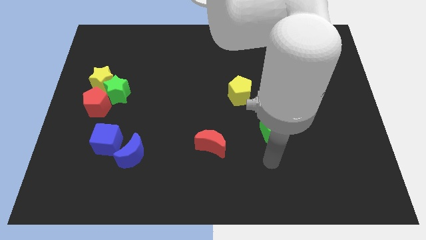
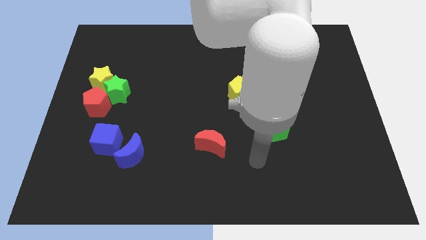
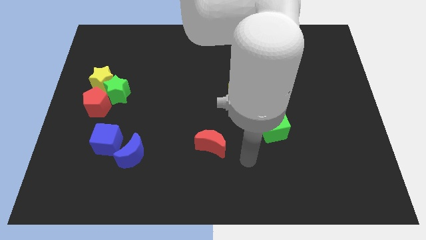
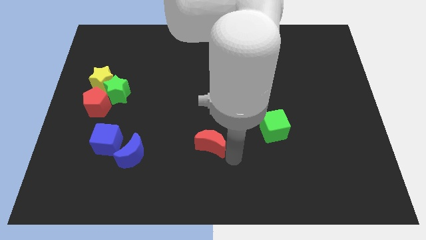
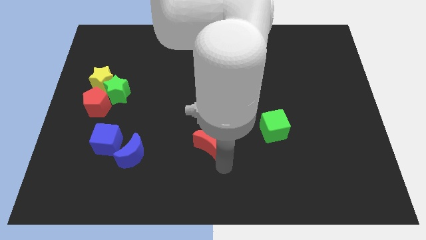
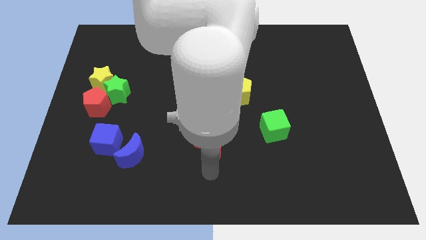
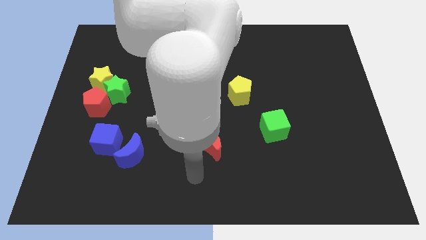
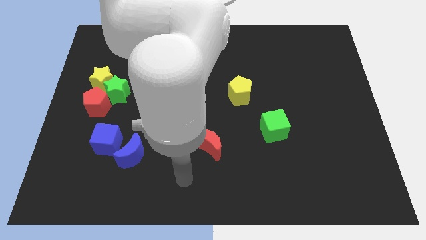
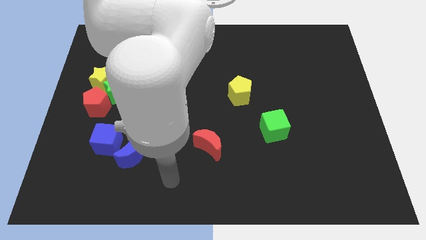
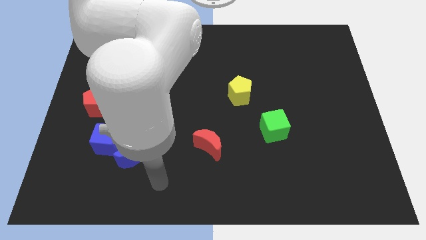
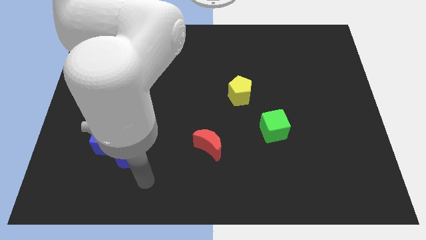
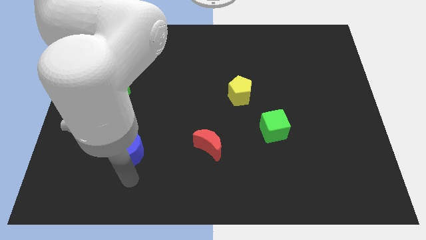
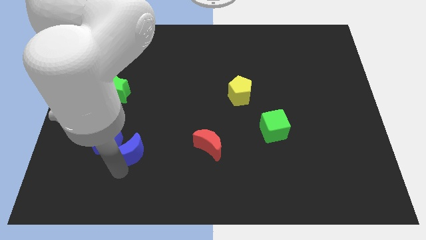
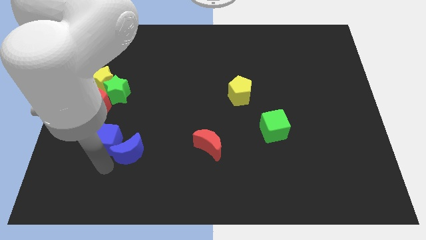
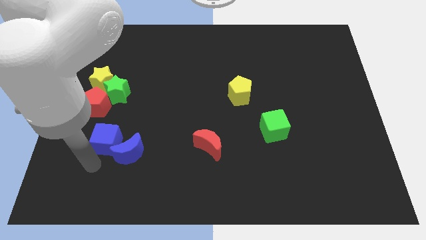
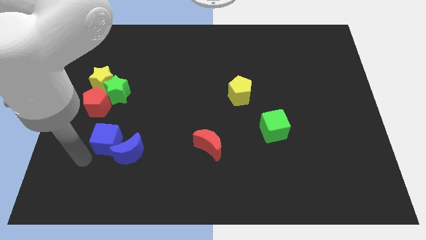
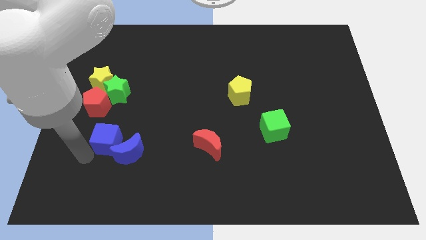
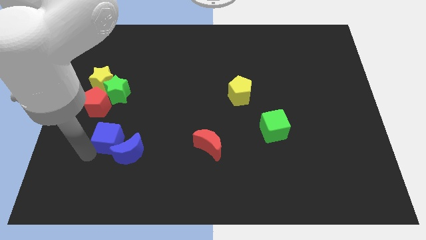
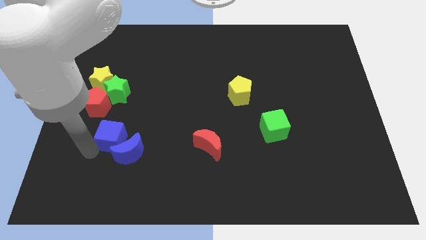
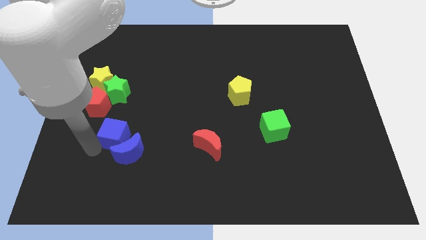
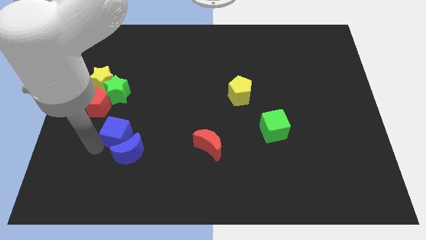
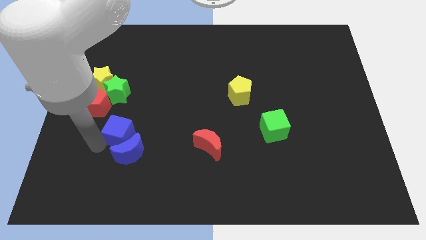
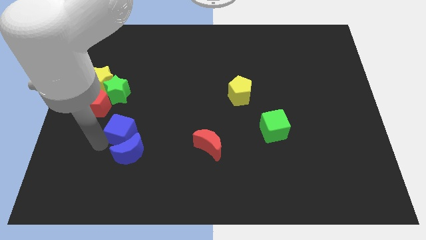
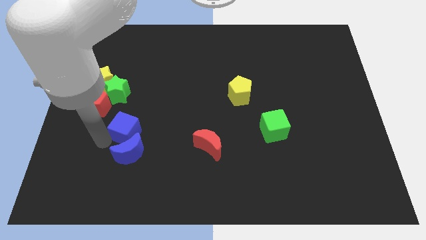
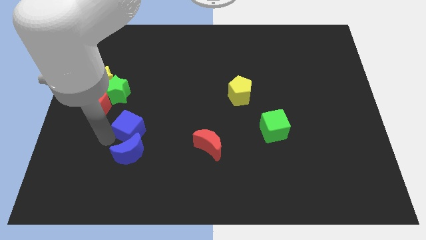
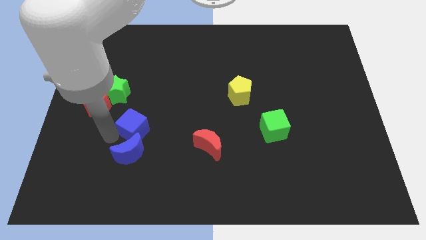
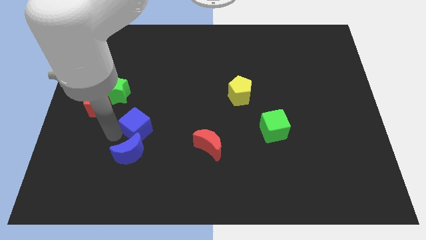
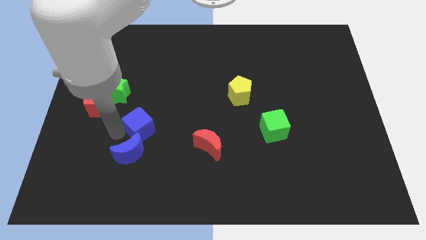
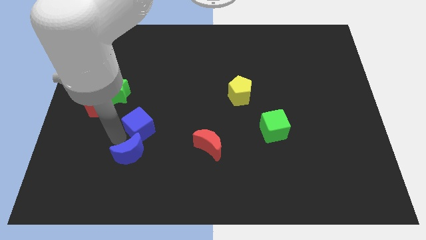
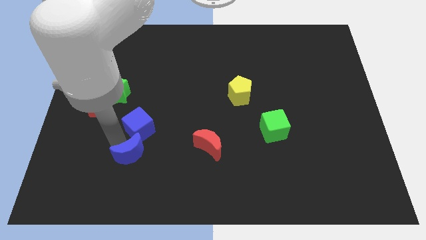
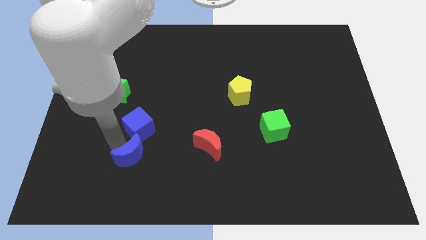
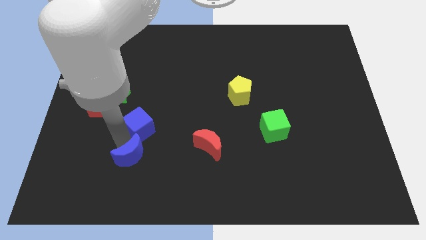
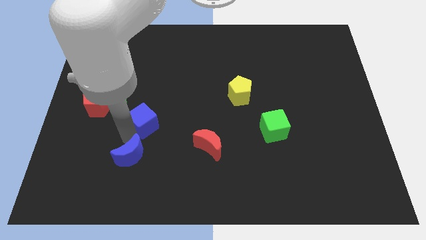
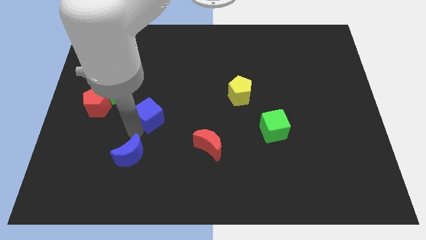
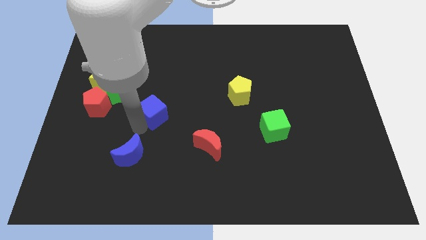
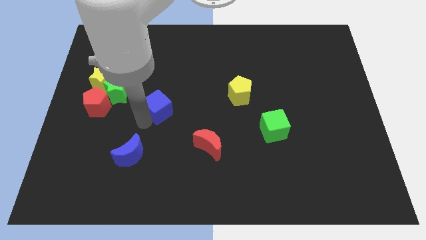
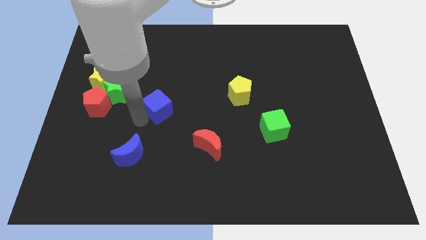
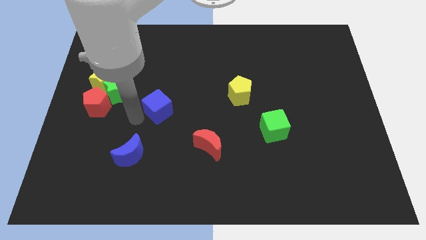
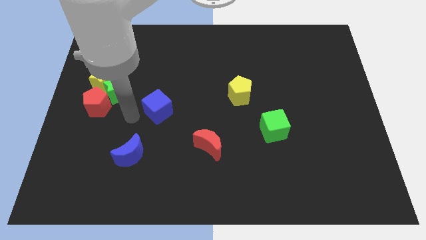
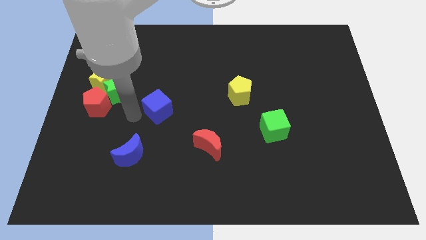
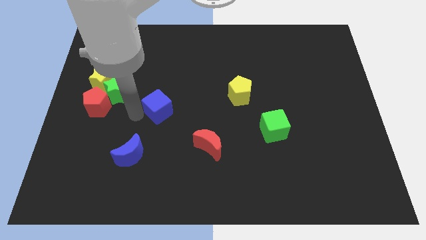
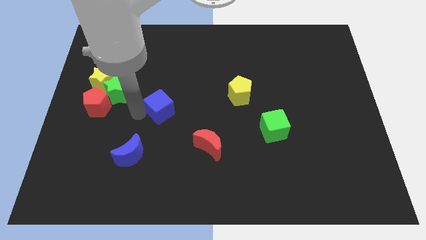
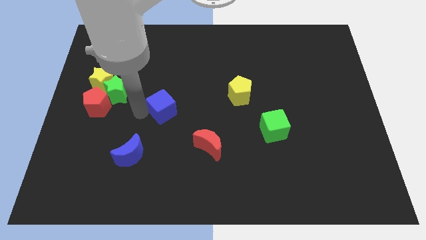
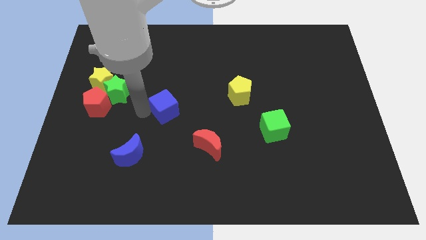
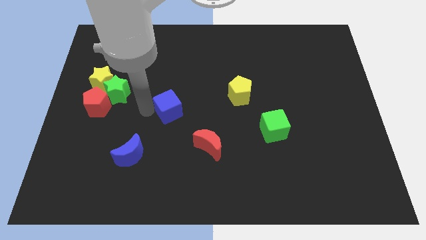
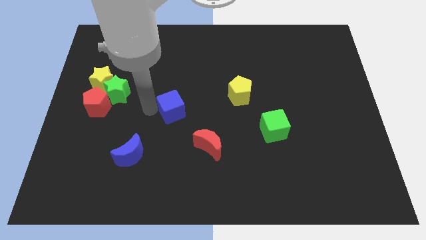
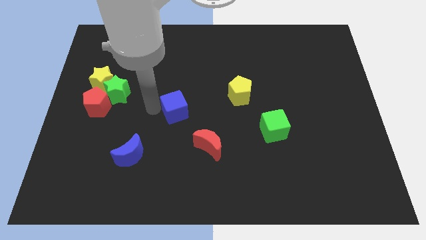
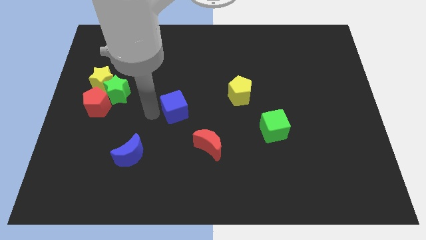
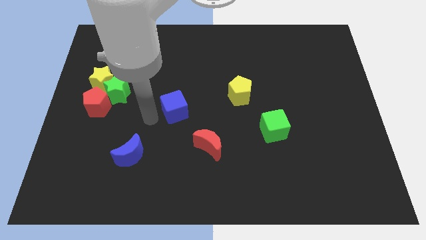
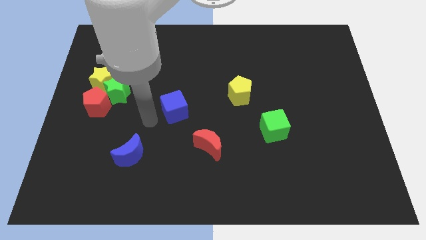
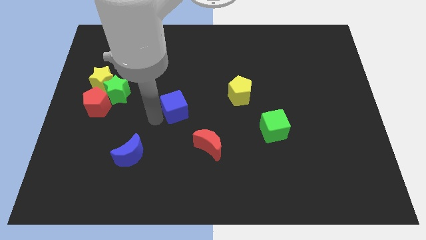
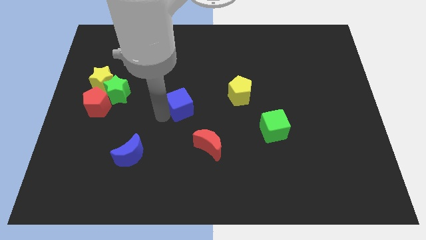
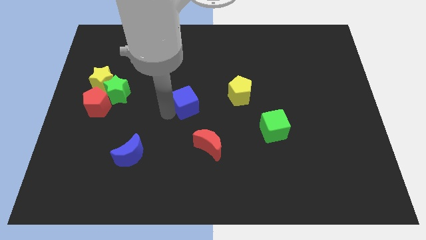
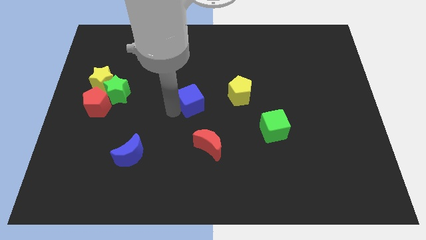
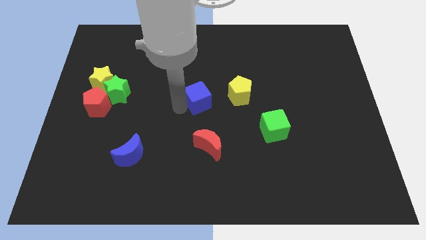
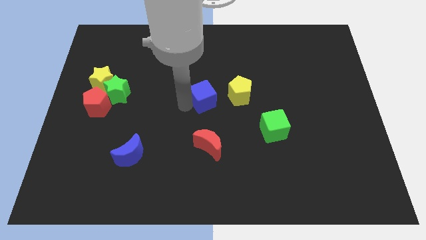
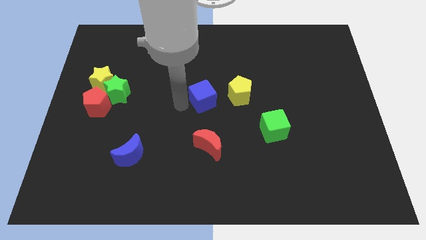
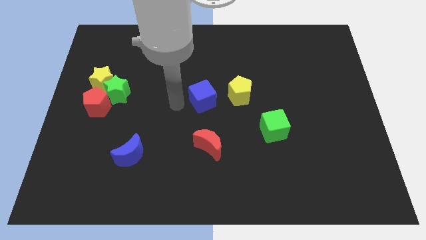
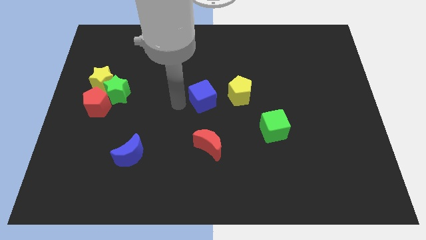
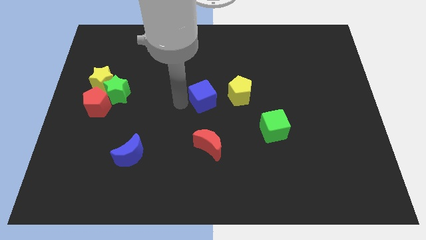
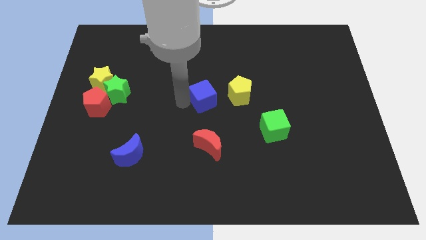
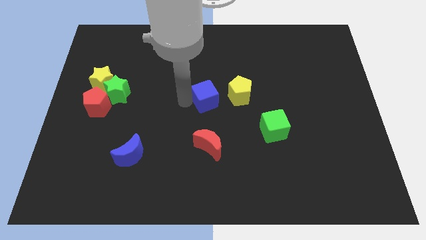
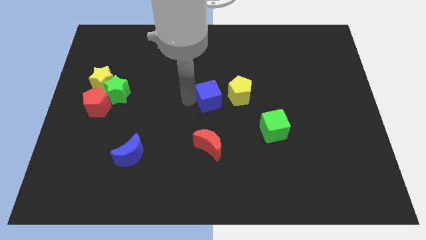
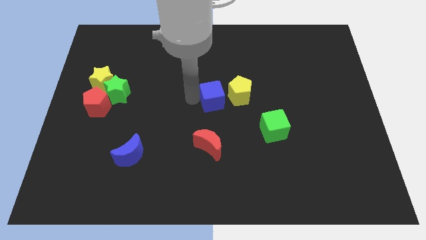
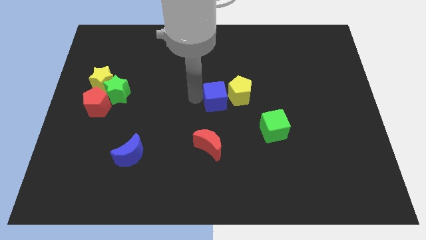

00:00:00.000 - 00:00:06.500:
move the blue cube next to the yellow pentagon
